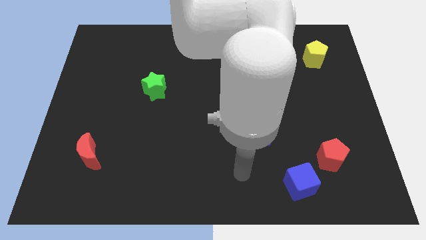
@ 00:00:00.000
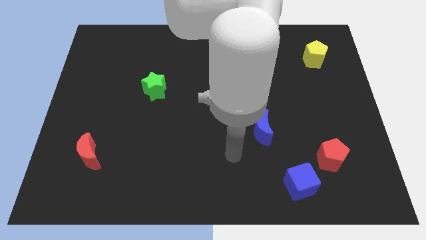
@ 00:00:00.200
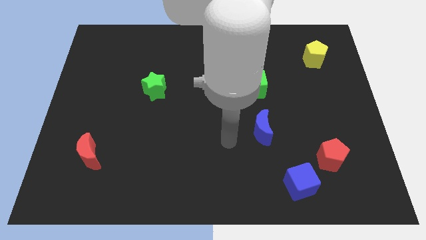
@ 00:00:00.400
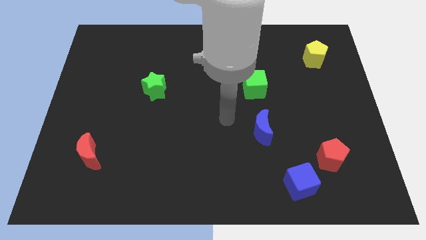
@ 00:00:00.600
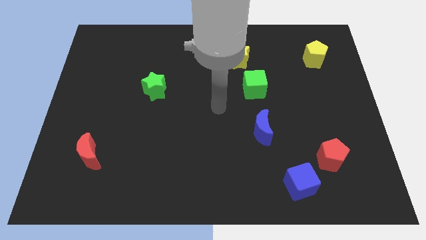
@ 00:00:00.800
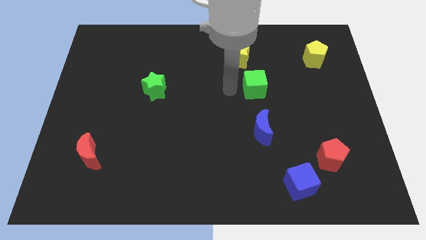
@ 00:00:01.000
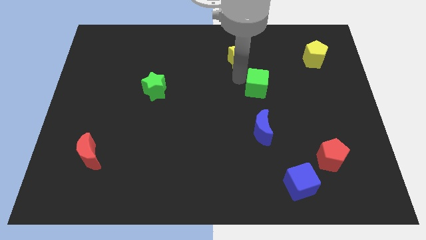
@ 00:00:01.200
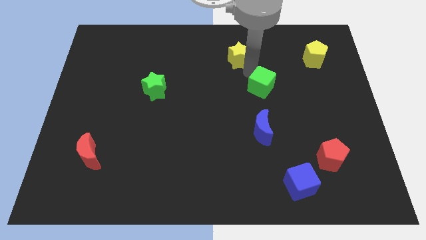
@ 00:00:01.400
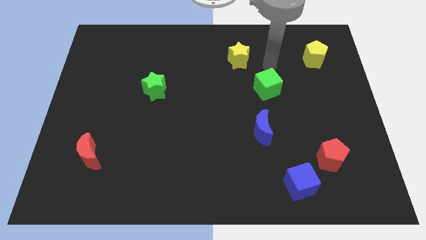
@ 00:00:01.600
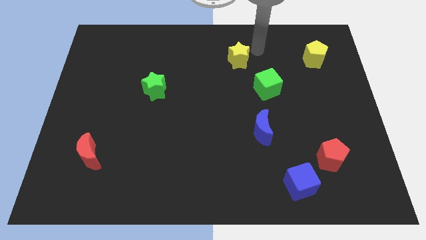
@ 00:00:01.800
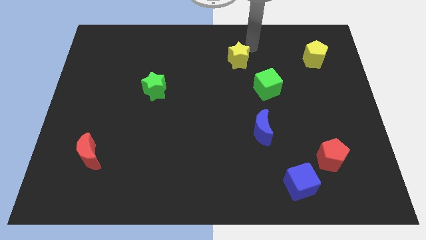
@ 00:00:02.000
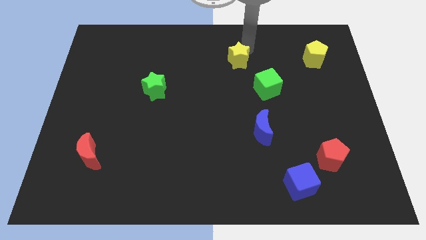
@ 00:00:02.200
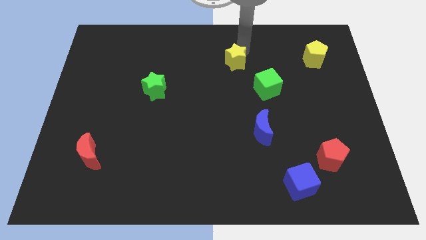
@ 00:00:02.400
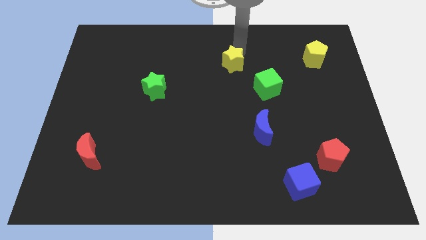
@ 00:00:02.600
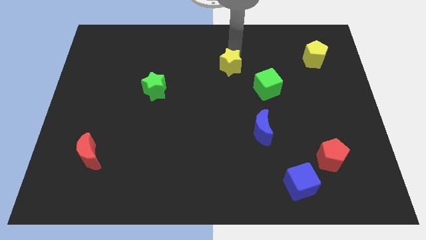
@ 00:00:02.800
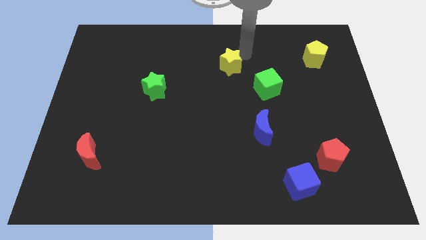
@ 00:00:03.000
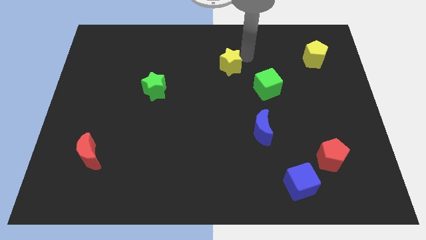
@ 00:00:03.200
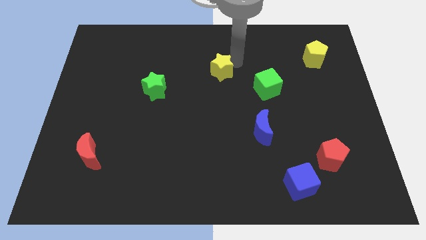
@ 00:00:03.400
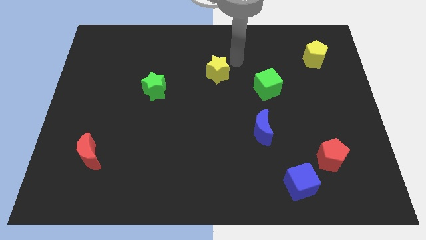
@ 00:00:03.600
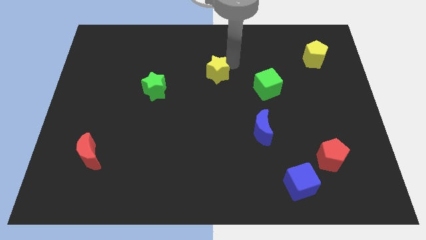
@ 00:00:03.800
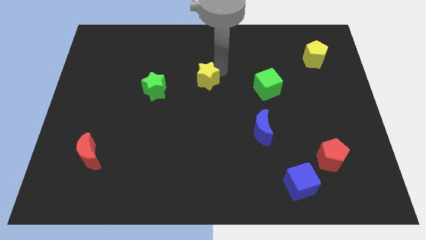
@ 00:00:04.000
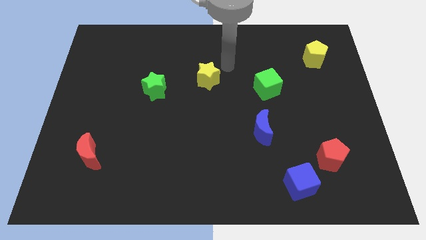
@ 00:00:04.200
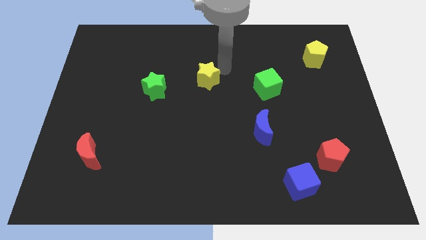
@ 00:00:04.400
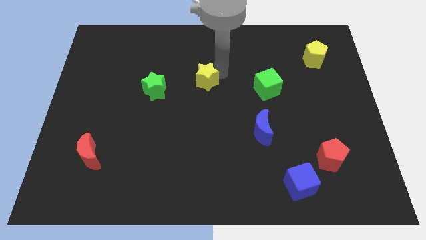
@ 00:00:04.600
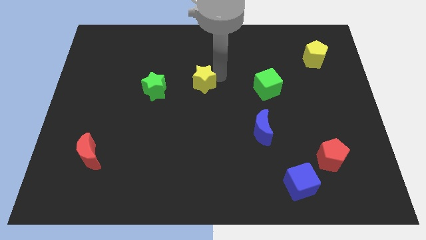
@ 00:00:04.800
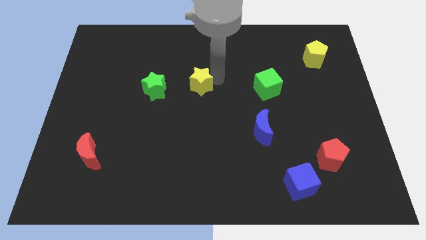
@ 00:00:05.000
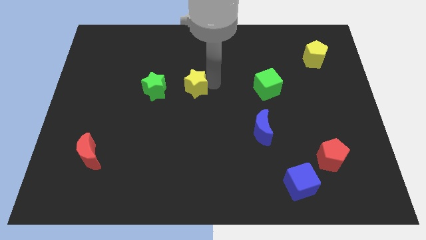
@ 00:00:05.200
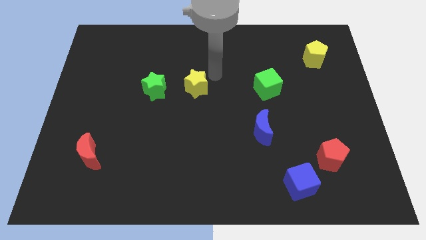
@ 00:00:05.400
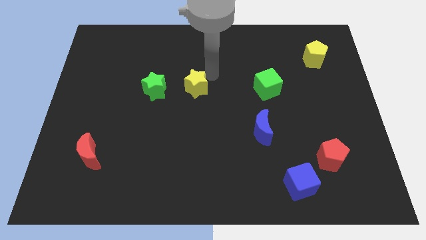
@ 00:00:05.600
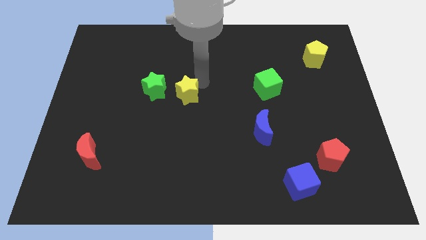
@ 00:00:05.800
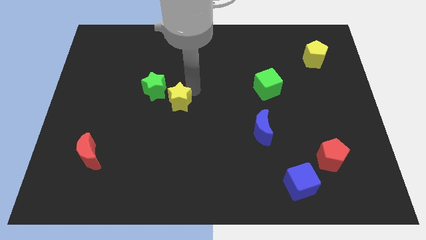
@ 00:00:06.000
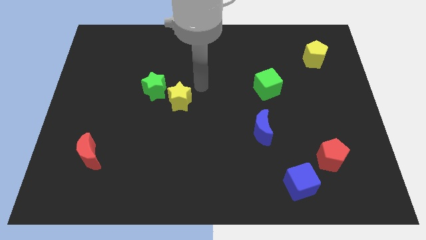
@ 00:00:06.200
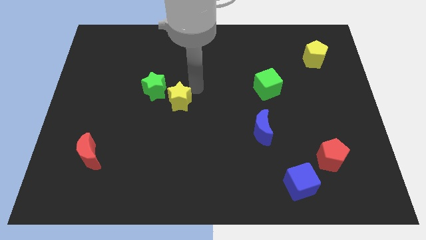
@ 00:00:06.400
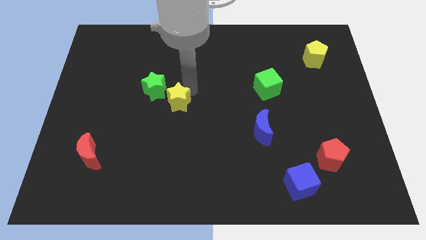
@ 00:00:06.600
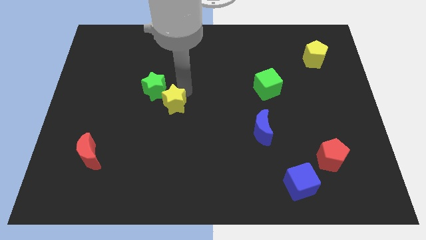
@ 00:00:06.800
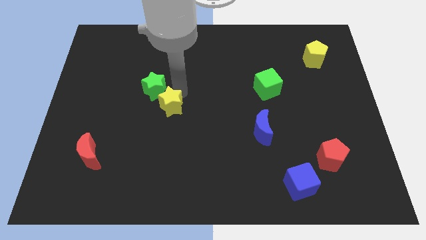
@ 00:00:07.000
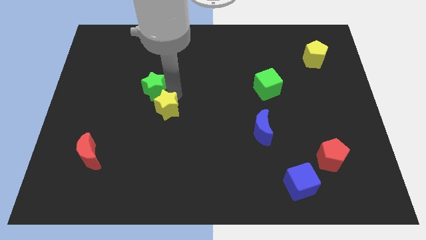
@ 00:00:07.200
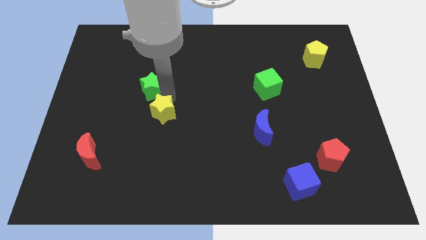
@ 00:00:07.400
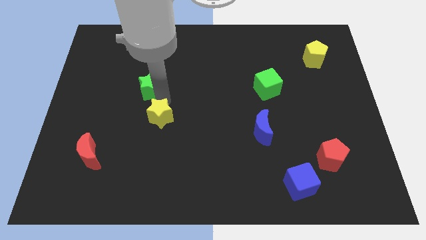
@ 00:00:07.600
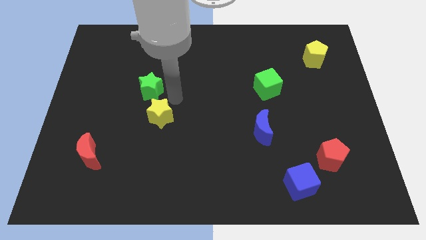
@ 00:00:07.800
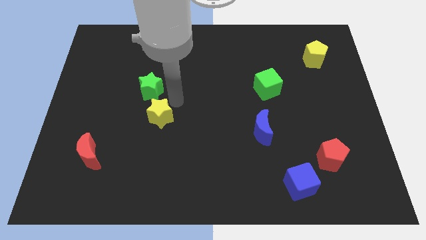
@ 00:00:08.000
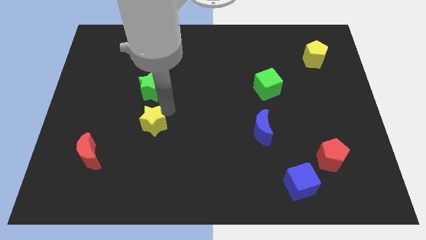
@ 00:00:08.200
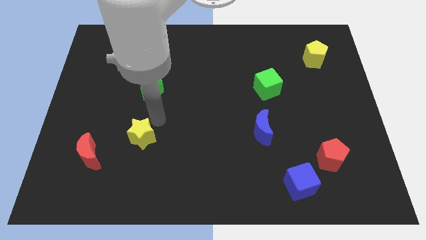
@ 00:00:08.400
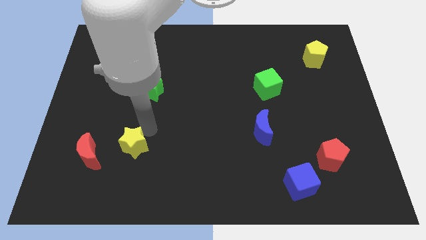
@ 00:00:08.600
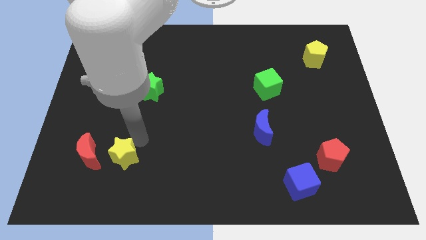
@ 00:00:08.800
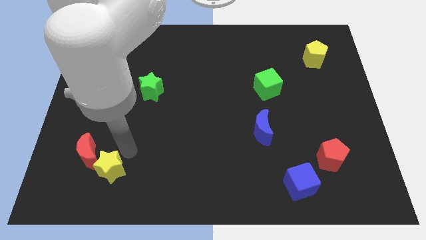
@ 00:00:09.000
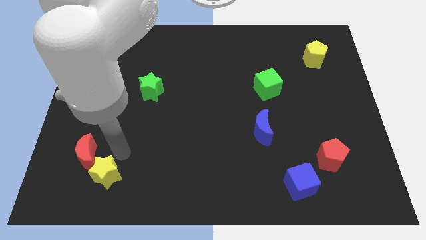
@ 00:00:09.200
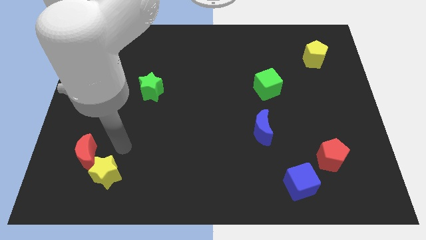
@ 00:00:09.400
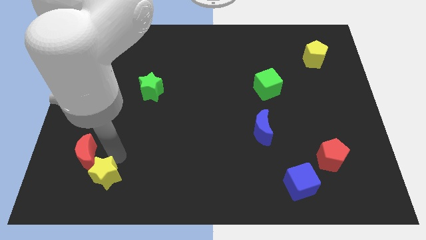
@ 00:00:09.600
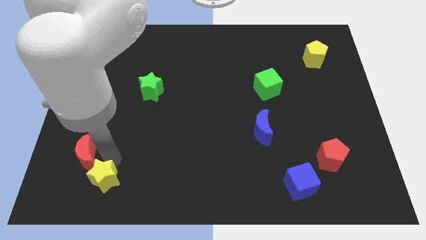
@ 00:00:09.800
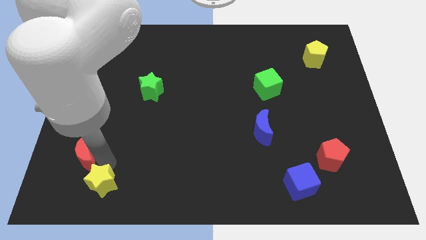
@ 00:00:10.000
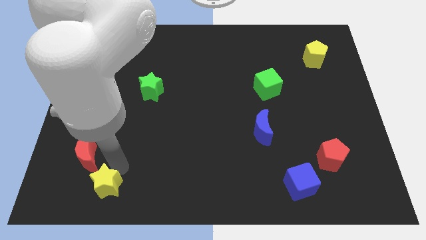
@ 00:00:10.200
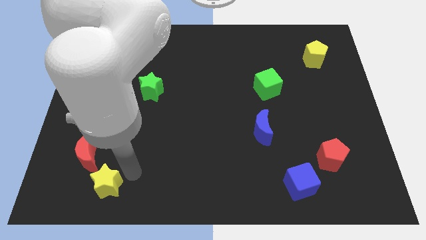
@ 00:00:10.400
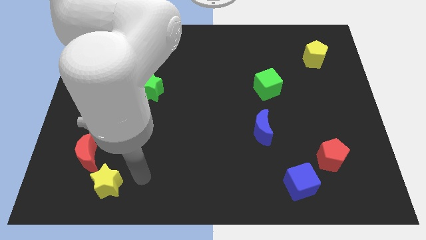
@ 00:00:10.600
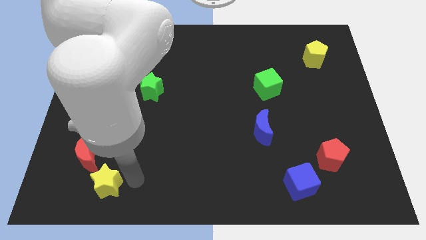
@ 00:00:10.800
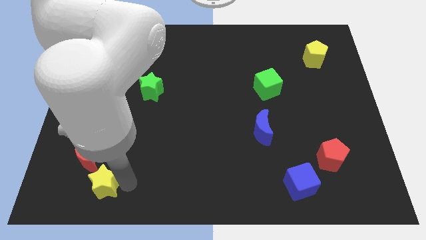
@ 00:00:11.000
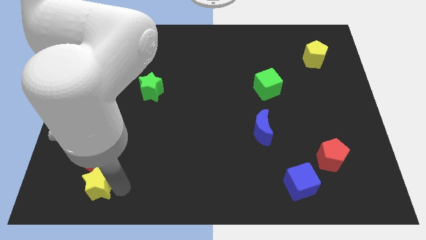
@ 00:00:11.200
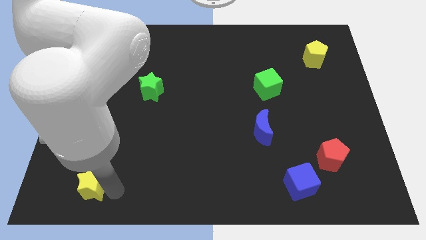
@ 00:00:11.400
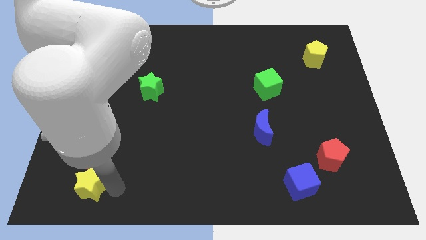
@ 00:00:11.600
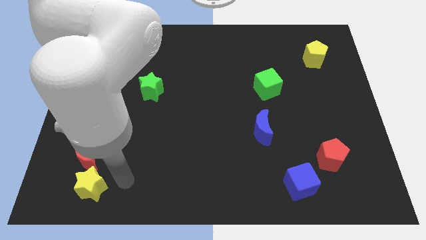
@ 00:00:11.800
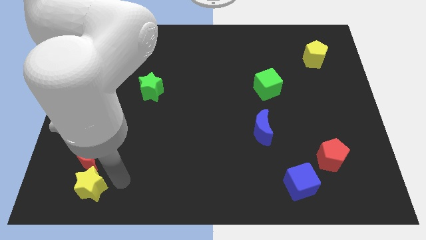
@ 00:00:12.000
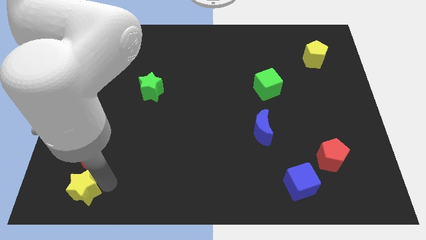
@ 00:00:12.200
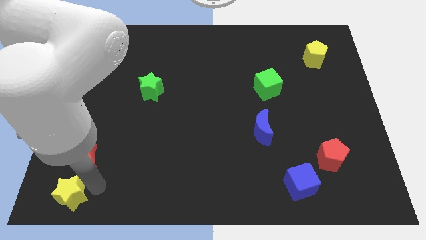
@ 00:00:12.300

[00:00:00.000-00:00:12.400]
put the yellow star to the bottom left
